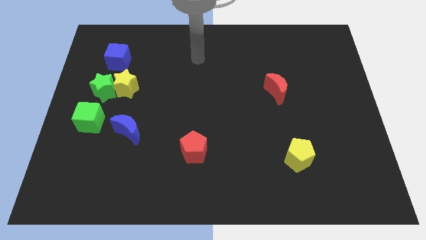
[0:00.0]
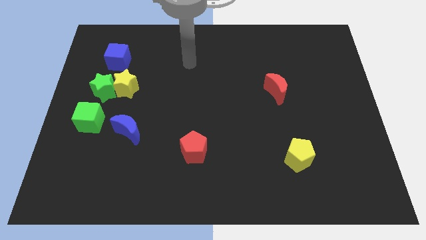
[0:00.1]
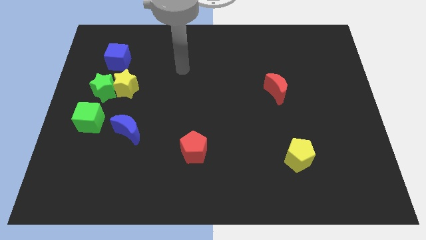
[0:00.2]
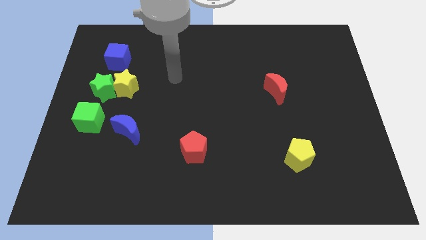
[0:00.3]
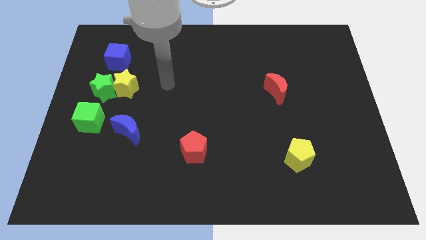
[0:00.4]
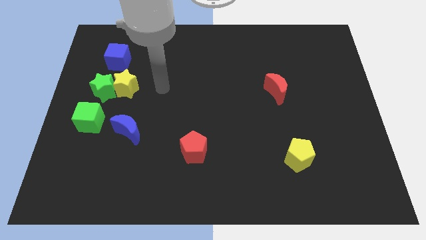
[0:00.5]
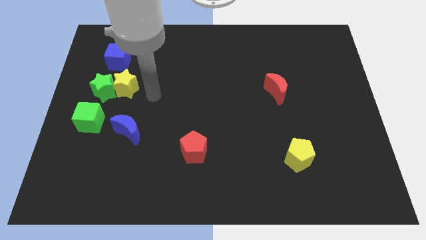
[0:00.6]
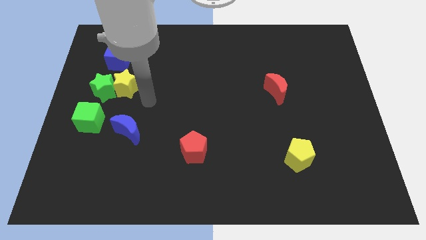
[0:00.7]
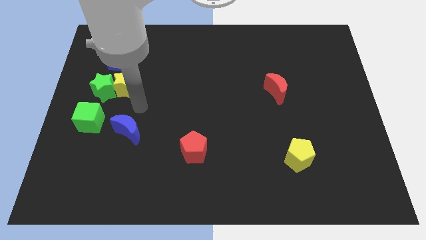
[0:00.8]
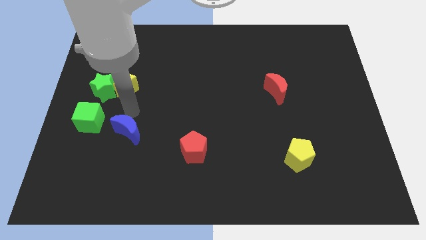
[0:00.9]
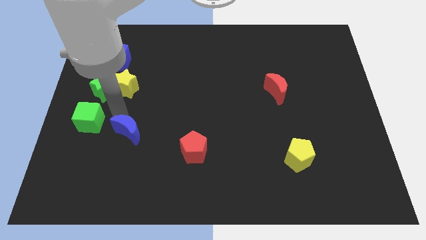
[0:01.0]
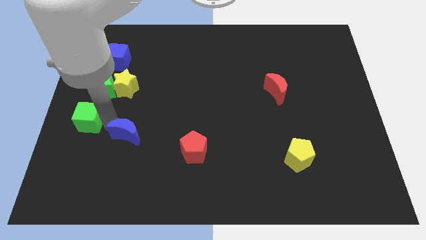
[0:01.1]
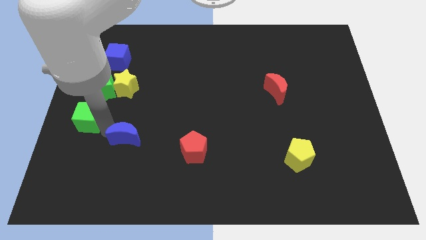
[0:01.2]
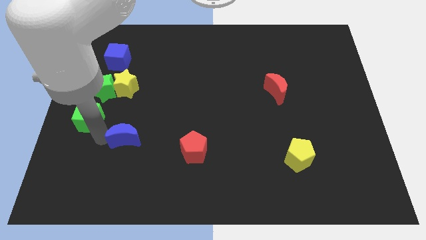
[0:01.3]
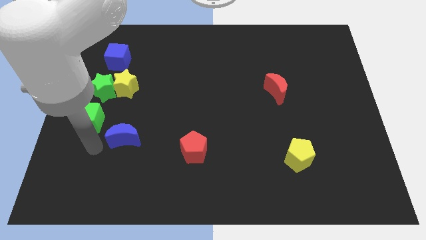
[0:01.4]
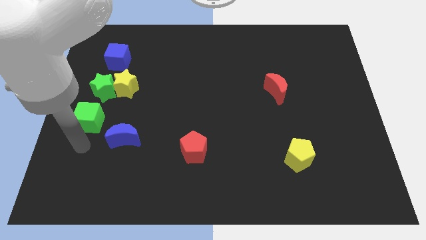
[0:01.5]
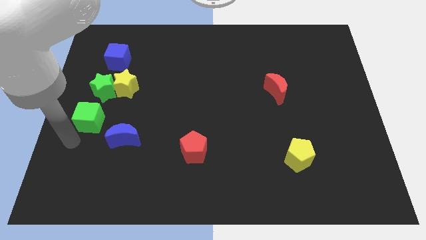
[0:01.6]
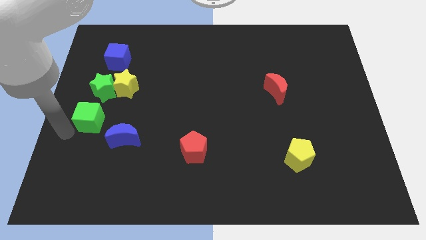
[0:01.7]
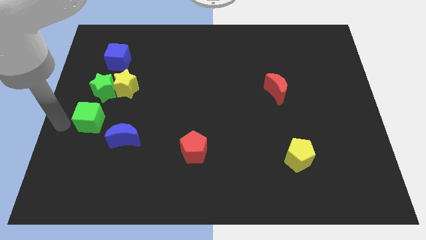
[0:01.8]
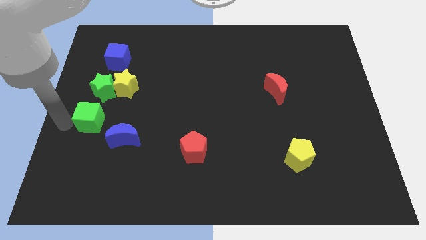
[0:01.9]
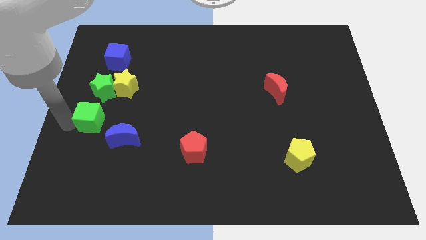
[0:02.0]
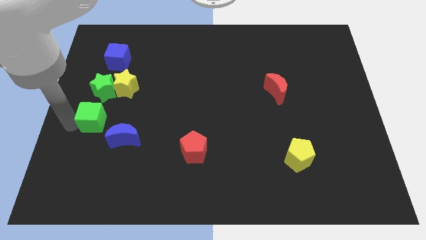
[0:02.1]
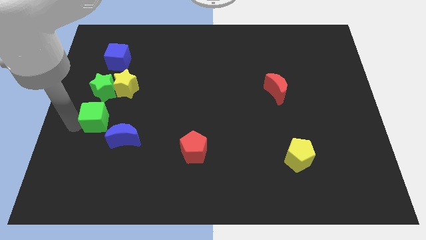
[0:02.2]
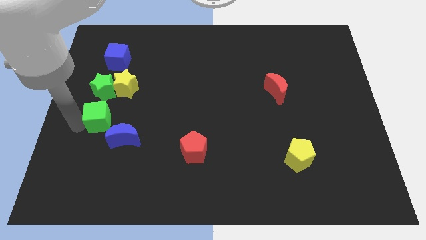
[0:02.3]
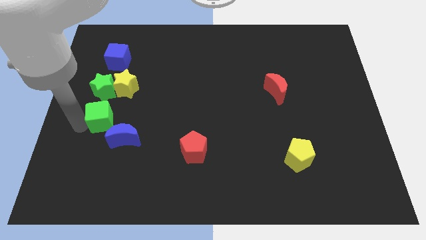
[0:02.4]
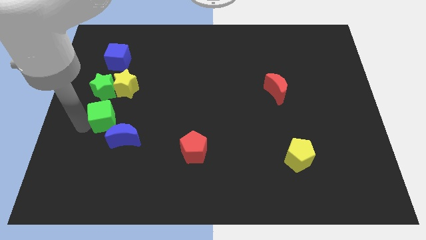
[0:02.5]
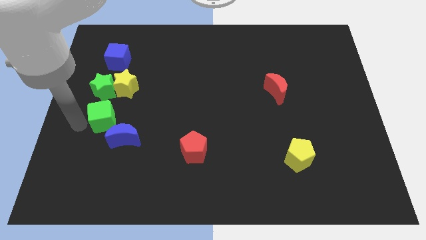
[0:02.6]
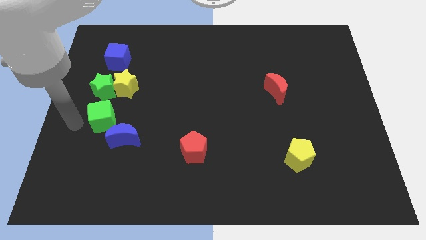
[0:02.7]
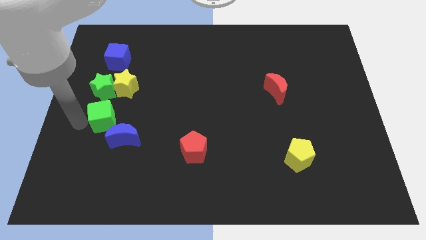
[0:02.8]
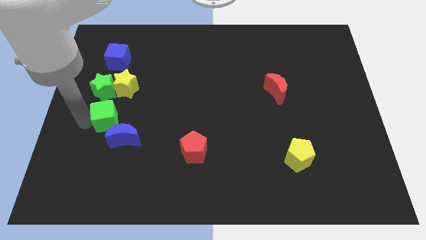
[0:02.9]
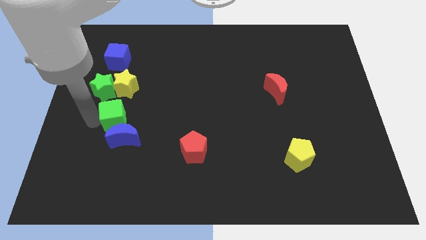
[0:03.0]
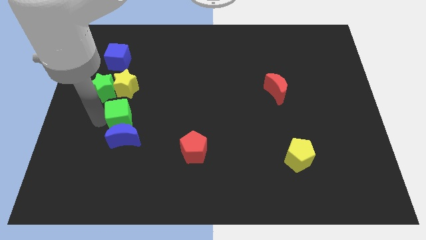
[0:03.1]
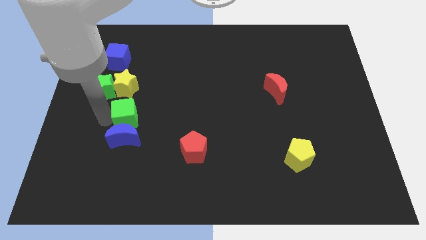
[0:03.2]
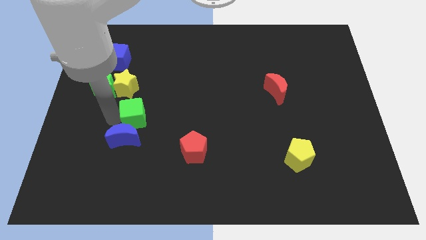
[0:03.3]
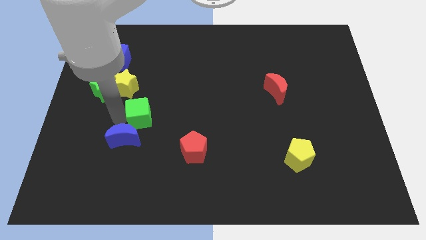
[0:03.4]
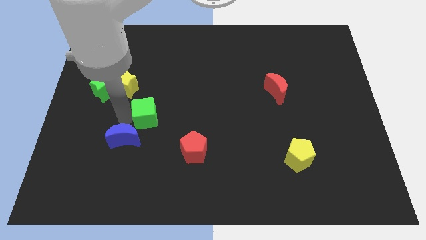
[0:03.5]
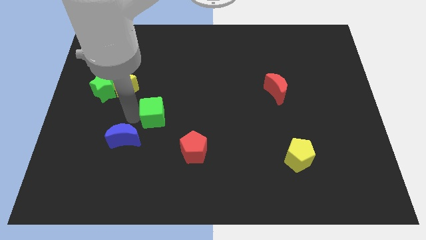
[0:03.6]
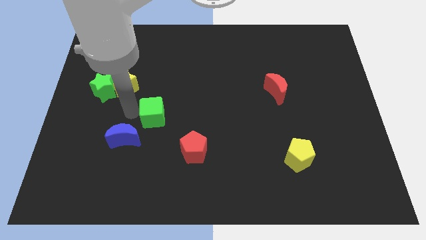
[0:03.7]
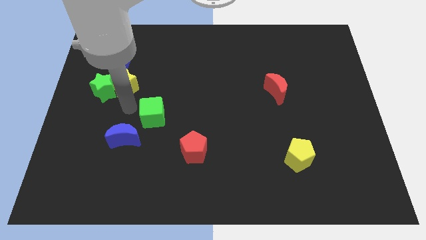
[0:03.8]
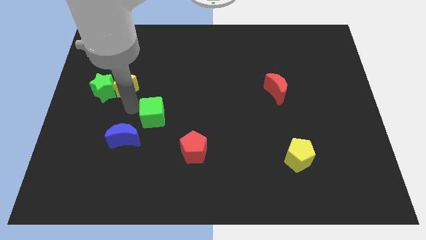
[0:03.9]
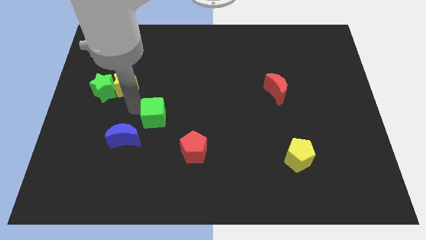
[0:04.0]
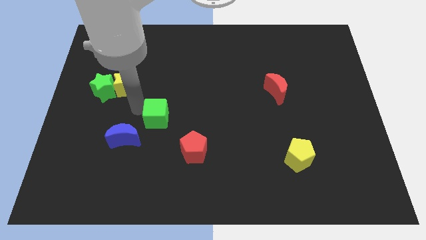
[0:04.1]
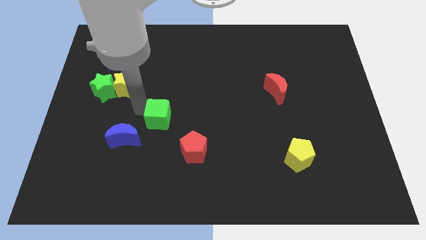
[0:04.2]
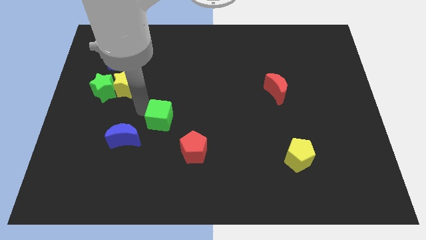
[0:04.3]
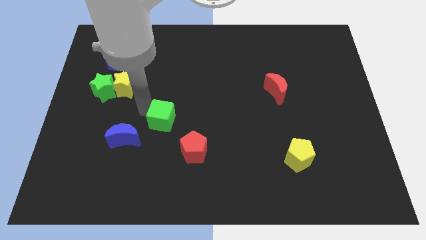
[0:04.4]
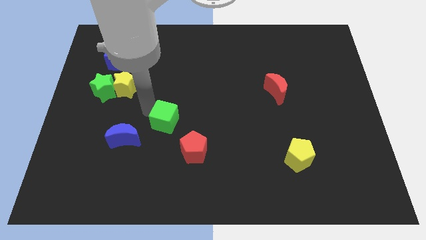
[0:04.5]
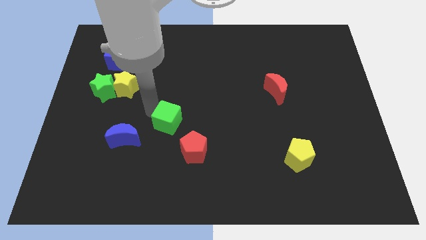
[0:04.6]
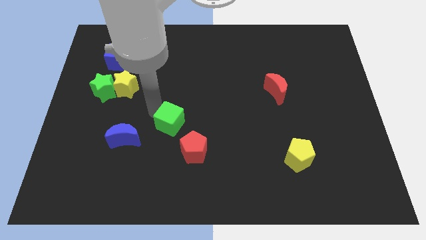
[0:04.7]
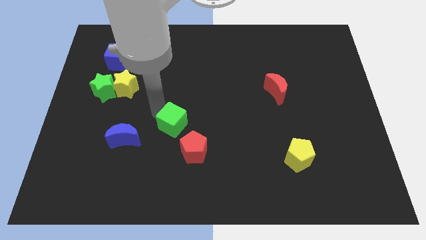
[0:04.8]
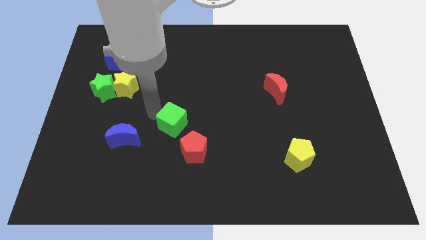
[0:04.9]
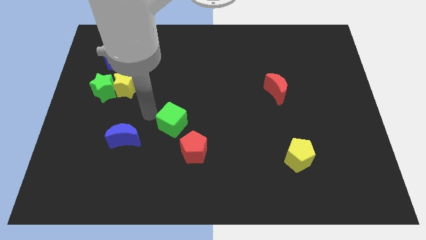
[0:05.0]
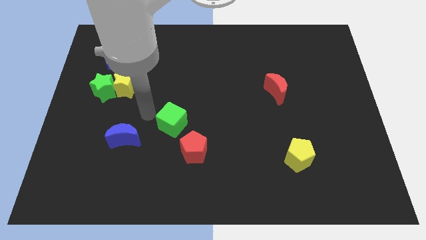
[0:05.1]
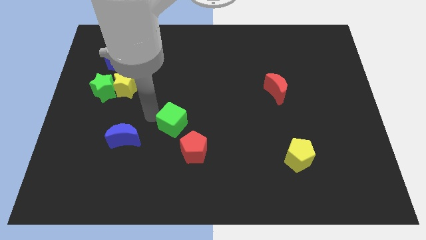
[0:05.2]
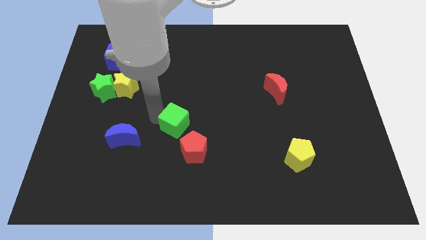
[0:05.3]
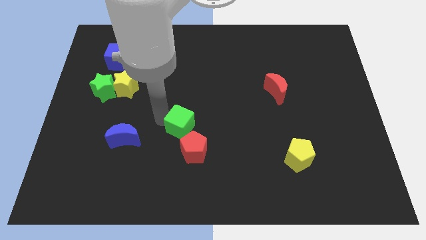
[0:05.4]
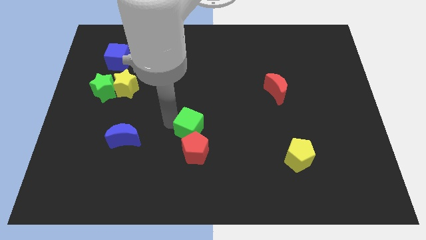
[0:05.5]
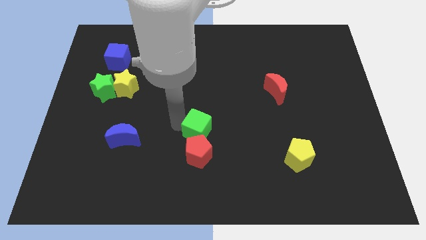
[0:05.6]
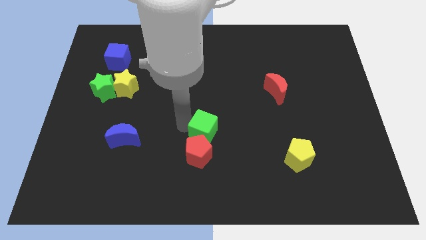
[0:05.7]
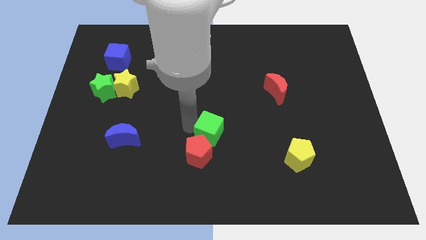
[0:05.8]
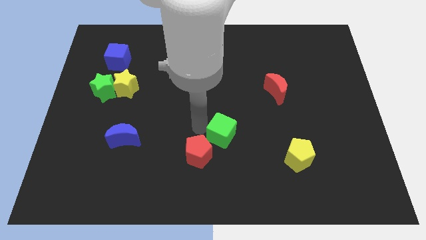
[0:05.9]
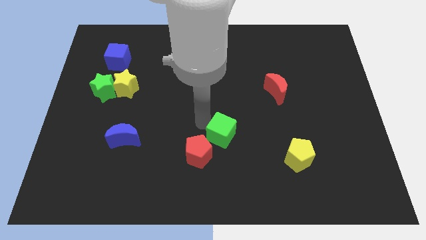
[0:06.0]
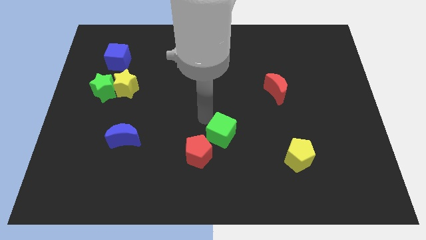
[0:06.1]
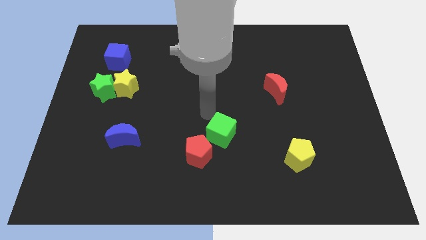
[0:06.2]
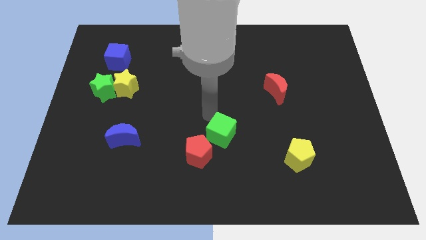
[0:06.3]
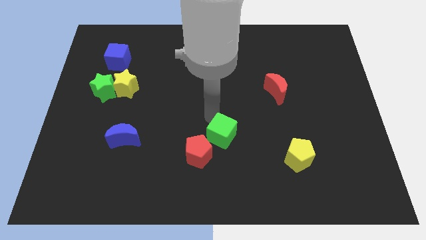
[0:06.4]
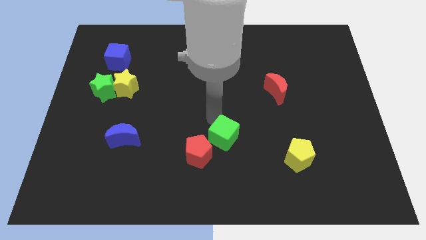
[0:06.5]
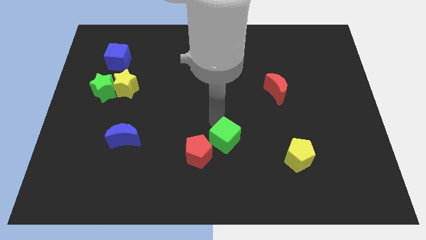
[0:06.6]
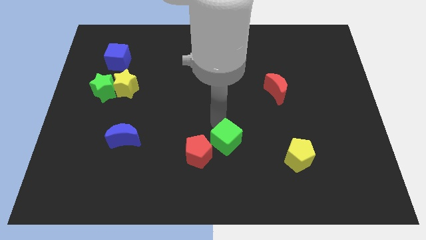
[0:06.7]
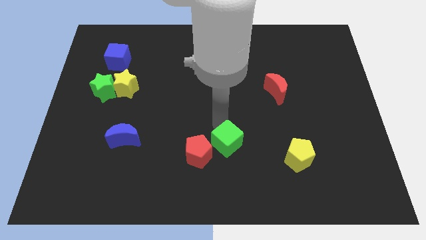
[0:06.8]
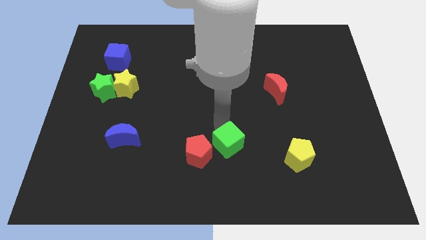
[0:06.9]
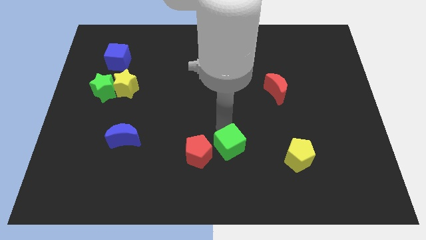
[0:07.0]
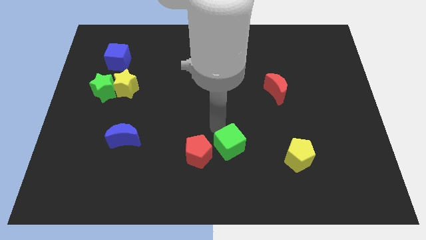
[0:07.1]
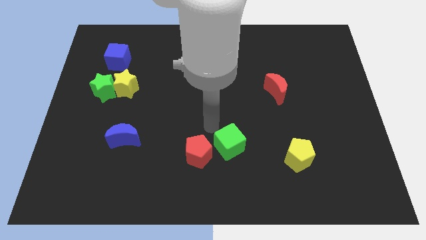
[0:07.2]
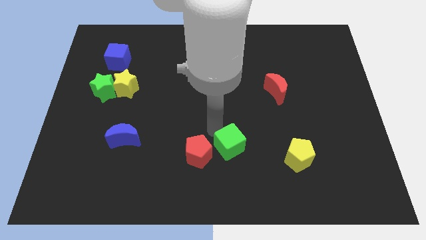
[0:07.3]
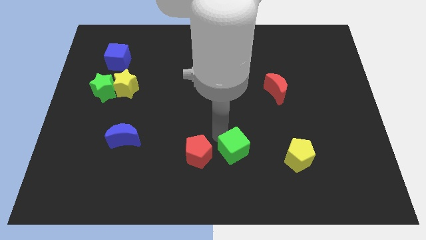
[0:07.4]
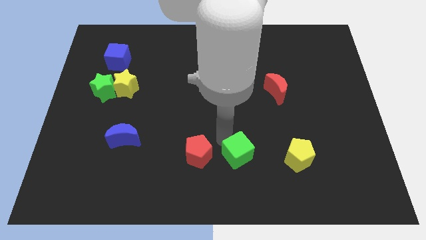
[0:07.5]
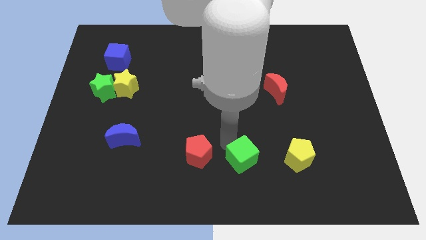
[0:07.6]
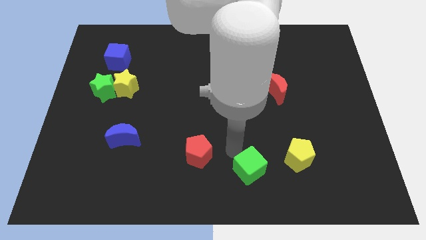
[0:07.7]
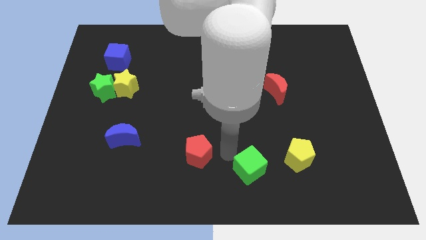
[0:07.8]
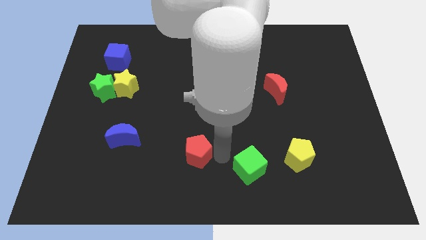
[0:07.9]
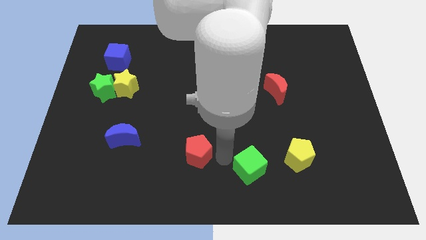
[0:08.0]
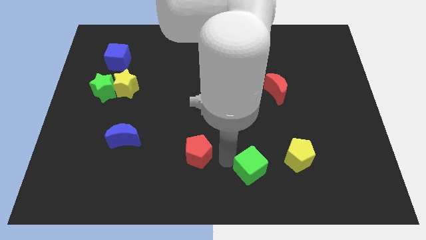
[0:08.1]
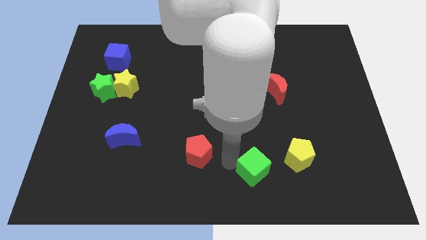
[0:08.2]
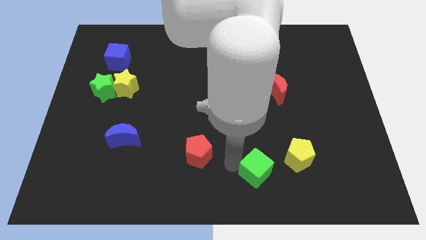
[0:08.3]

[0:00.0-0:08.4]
push the green cube to the bottom left side of the yellow pentagon
